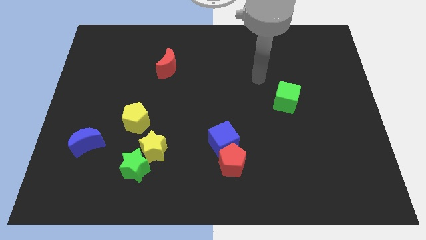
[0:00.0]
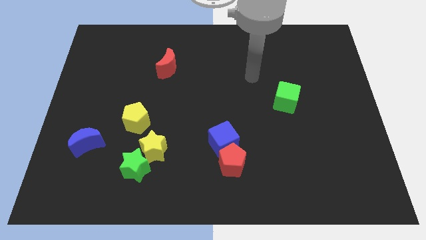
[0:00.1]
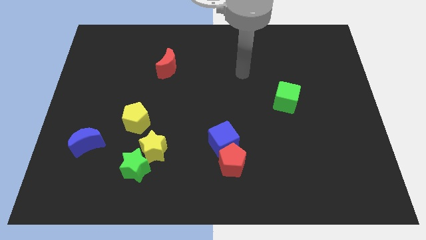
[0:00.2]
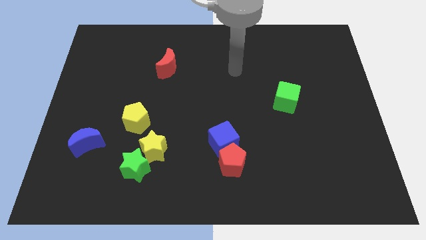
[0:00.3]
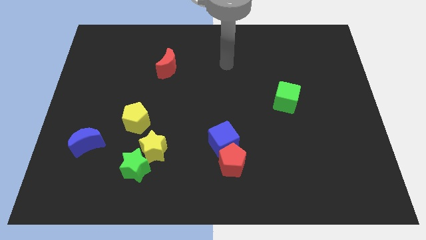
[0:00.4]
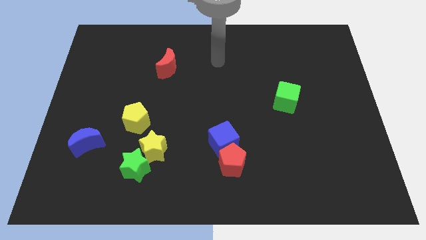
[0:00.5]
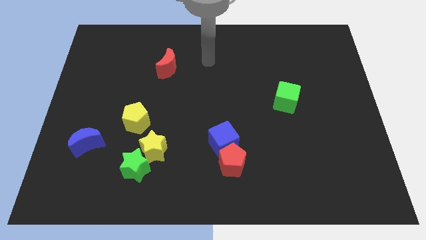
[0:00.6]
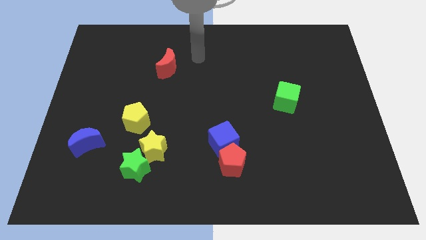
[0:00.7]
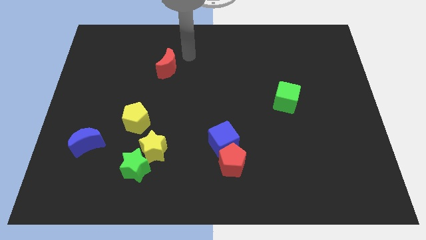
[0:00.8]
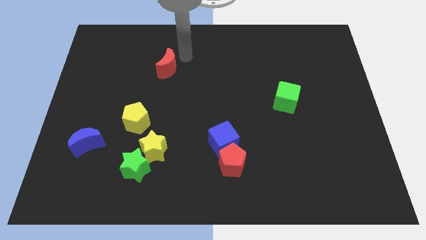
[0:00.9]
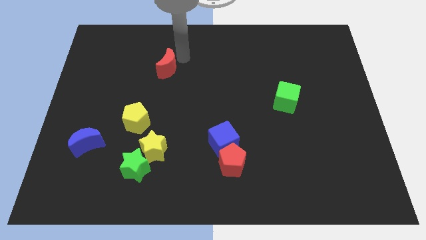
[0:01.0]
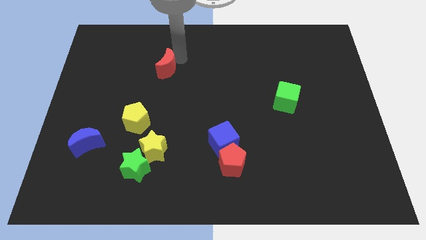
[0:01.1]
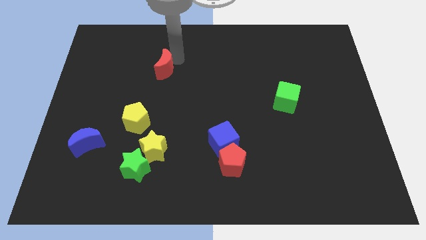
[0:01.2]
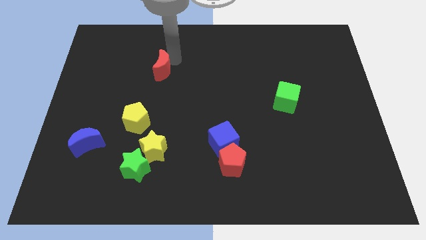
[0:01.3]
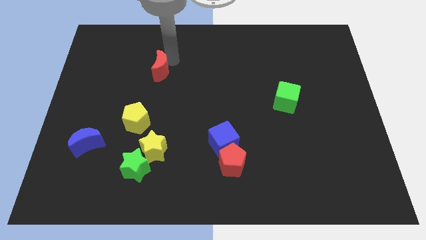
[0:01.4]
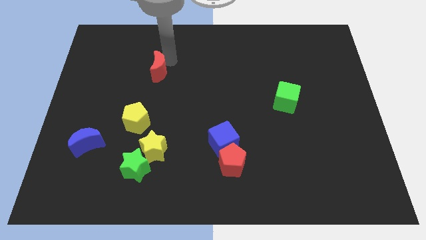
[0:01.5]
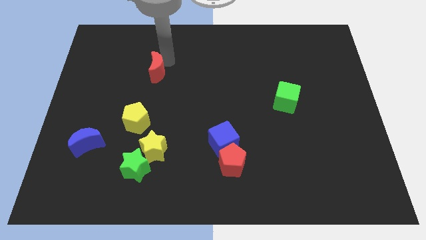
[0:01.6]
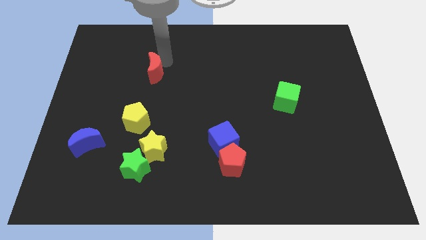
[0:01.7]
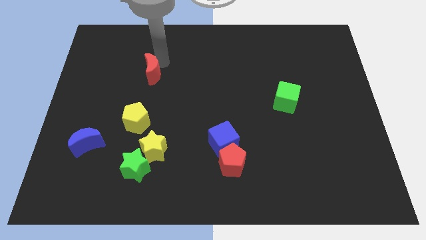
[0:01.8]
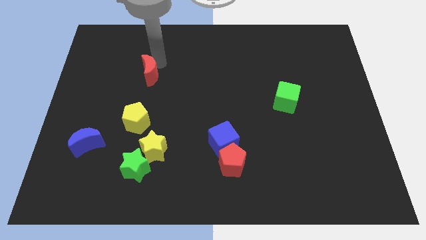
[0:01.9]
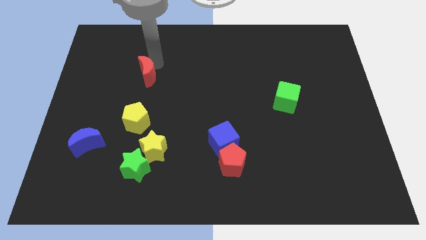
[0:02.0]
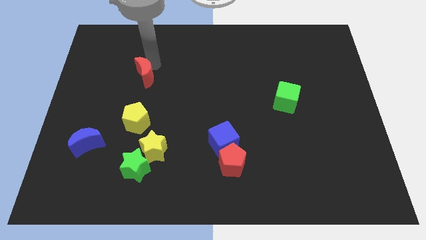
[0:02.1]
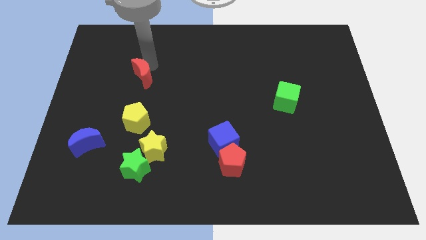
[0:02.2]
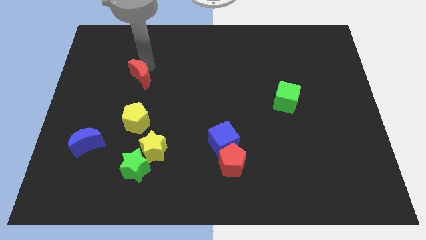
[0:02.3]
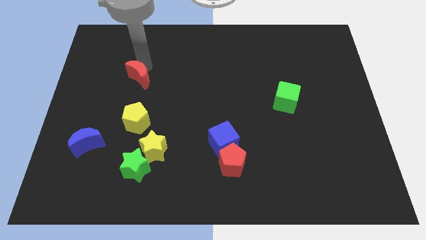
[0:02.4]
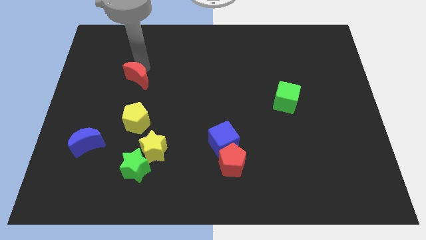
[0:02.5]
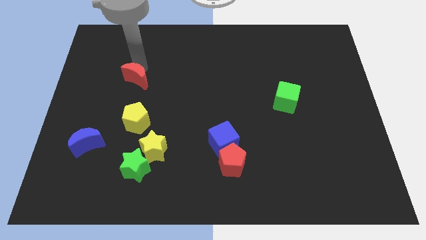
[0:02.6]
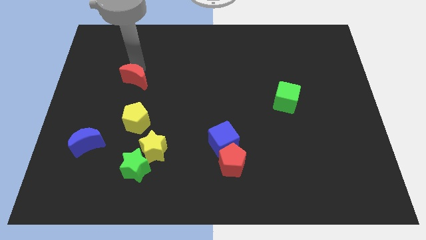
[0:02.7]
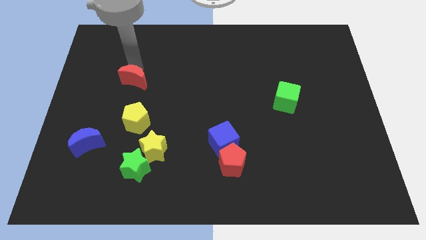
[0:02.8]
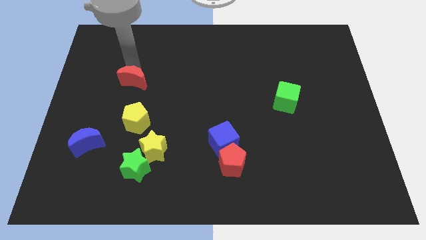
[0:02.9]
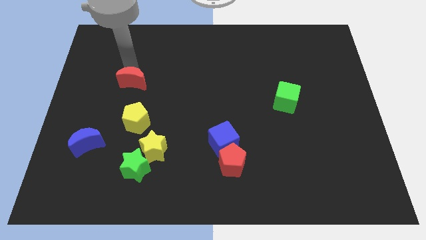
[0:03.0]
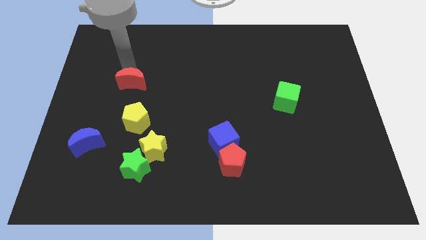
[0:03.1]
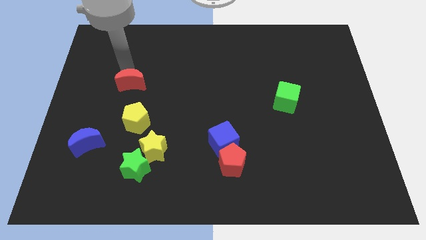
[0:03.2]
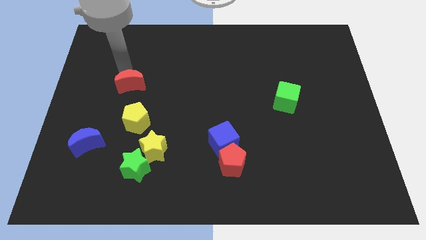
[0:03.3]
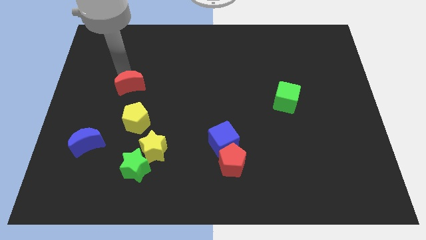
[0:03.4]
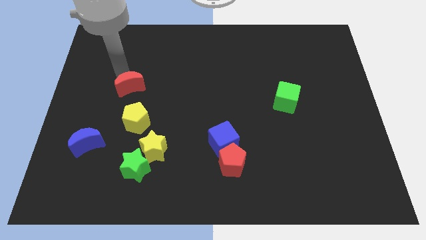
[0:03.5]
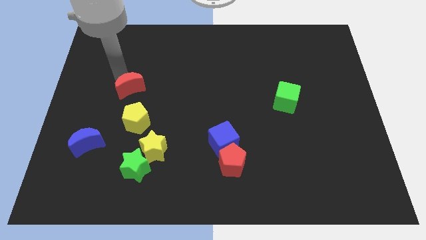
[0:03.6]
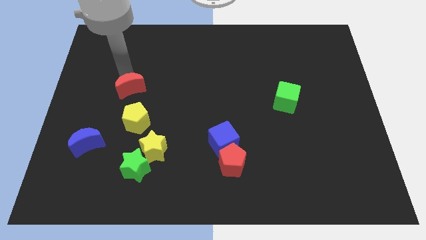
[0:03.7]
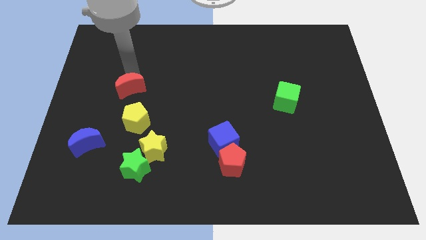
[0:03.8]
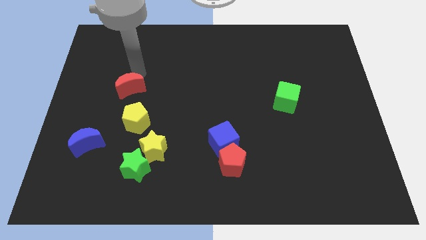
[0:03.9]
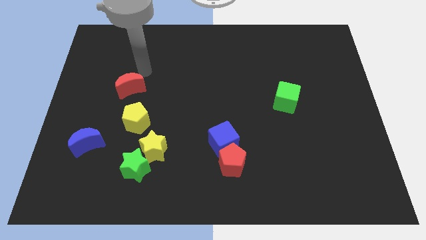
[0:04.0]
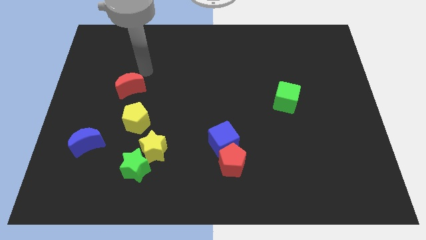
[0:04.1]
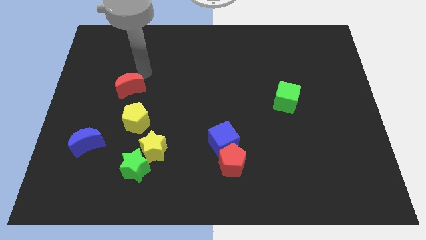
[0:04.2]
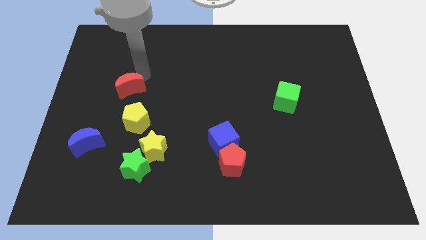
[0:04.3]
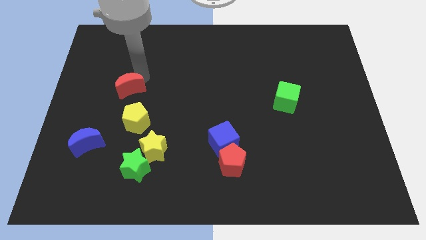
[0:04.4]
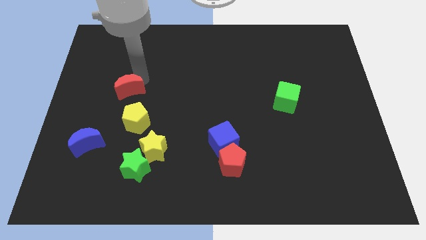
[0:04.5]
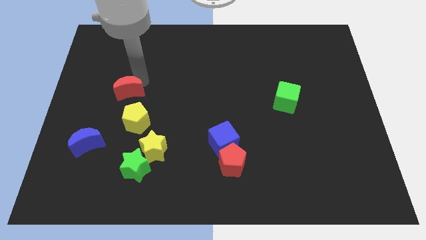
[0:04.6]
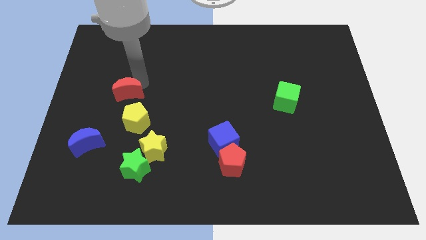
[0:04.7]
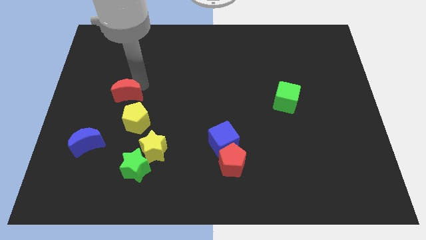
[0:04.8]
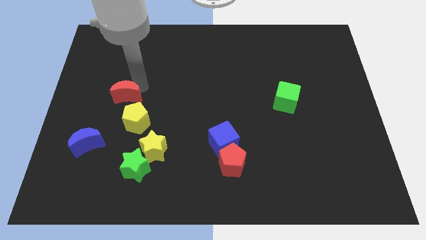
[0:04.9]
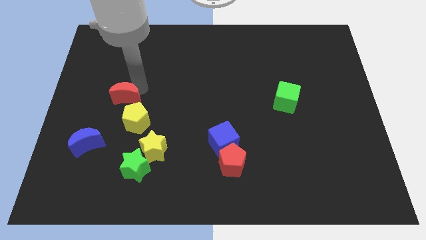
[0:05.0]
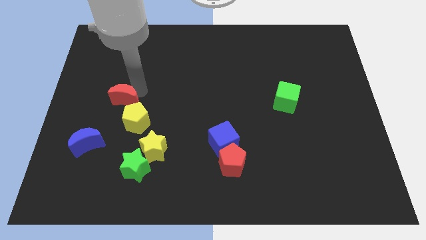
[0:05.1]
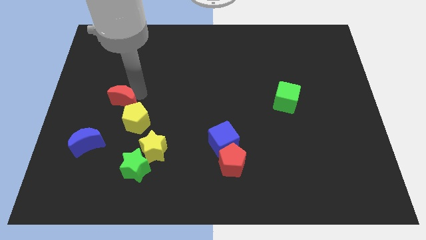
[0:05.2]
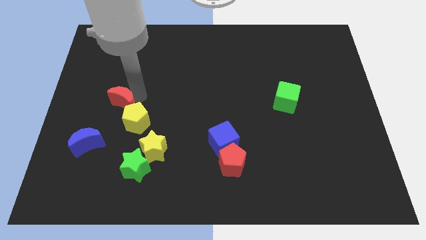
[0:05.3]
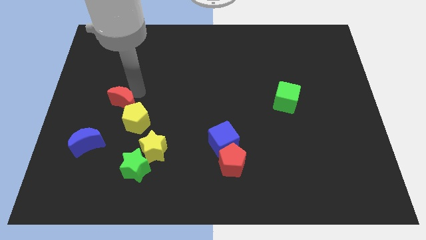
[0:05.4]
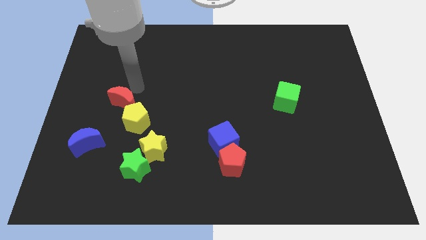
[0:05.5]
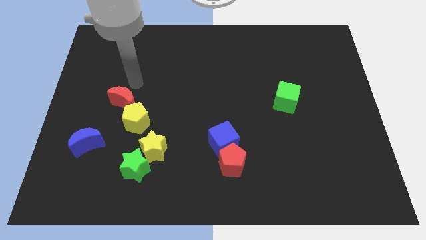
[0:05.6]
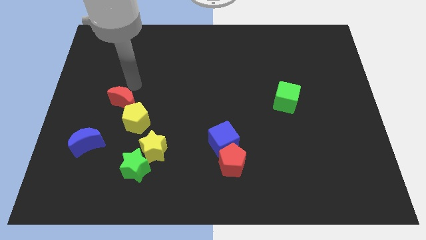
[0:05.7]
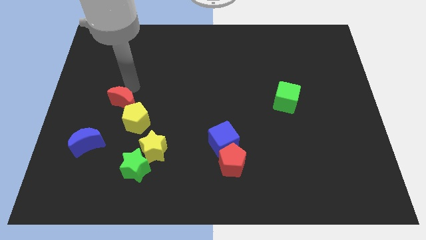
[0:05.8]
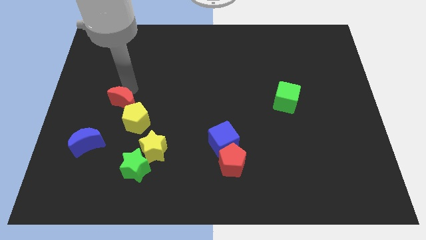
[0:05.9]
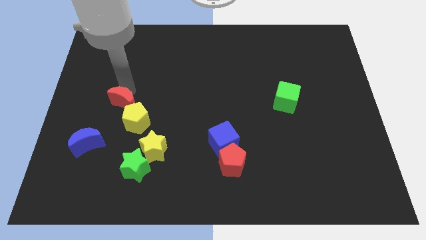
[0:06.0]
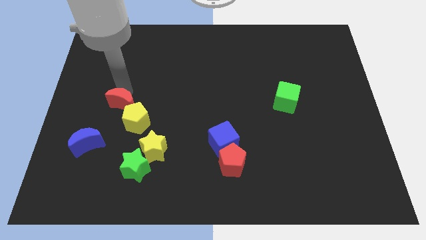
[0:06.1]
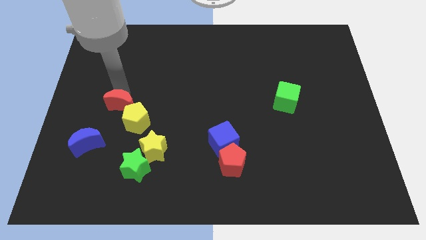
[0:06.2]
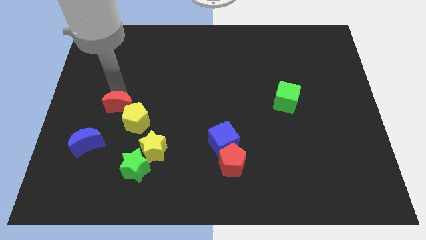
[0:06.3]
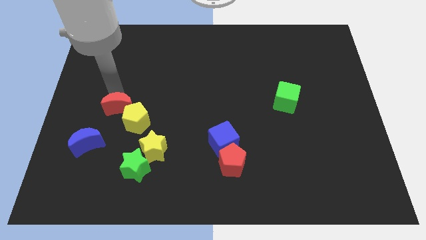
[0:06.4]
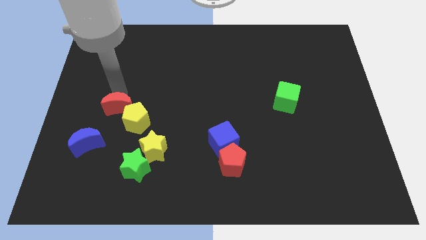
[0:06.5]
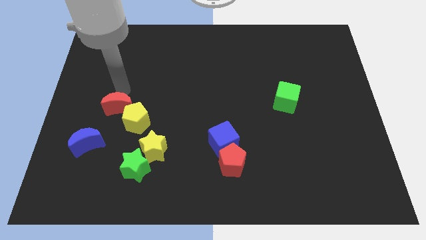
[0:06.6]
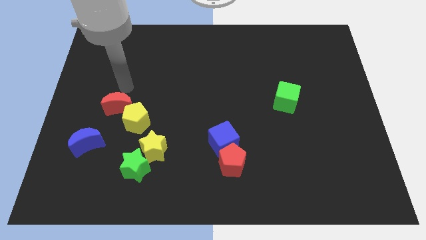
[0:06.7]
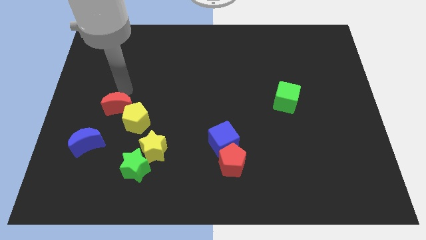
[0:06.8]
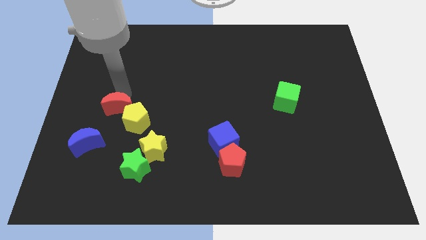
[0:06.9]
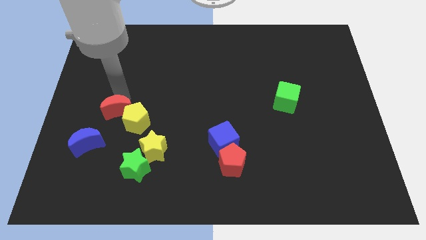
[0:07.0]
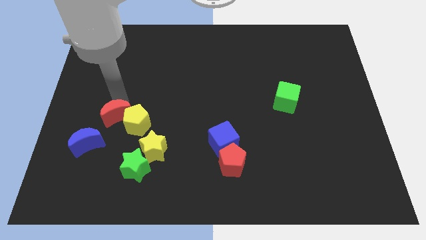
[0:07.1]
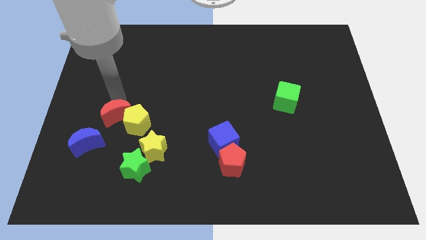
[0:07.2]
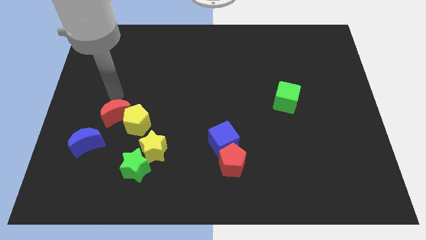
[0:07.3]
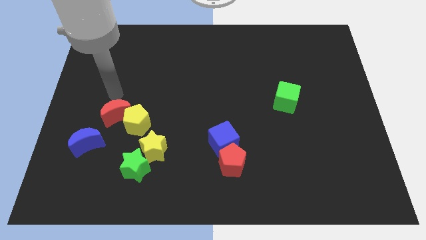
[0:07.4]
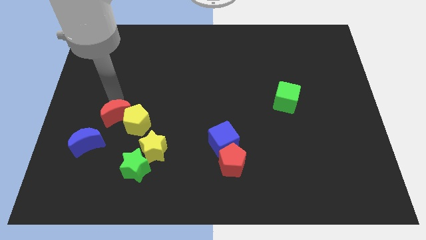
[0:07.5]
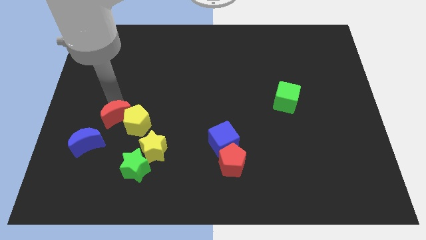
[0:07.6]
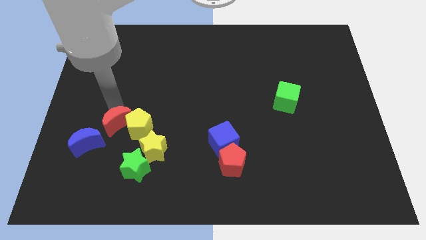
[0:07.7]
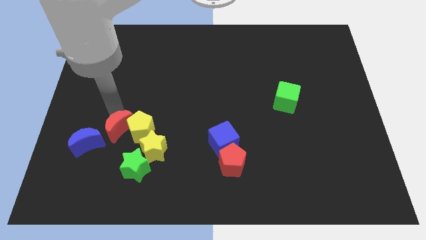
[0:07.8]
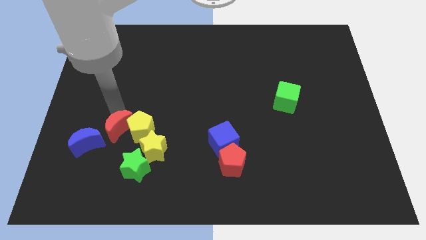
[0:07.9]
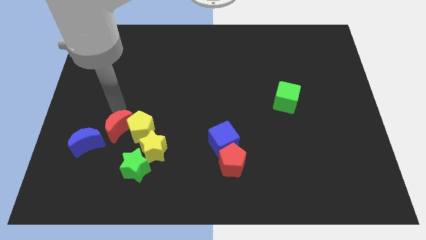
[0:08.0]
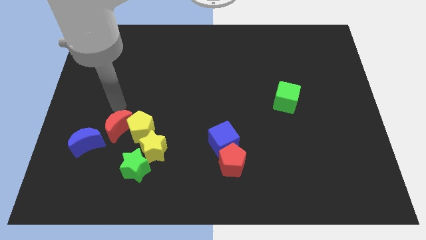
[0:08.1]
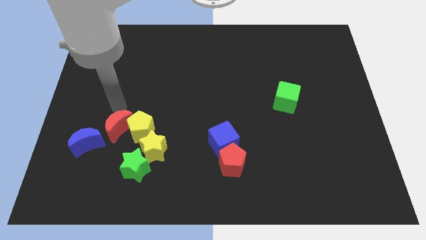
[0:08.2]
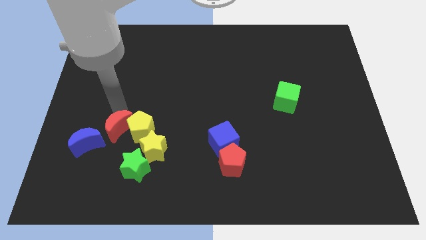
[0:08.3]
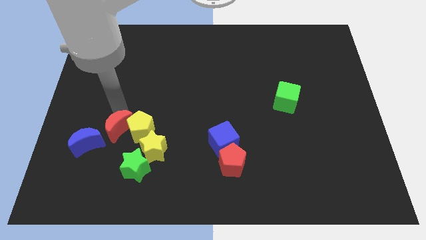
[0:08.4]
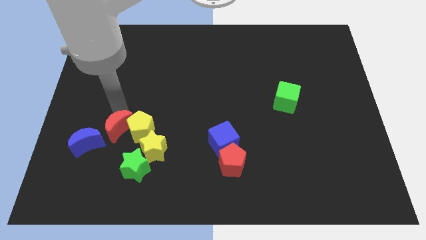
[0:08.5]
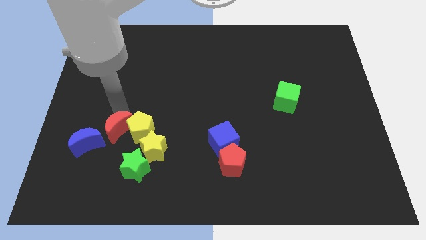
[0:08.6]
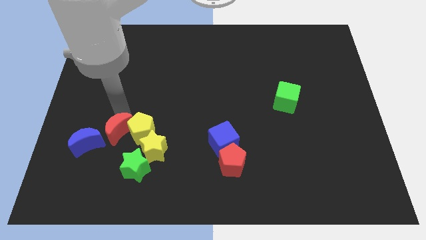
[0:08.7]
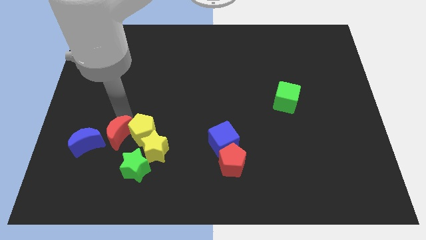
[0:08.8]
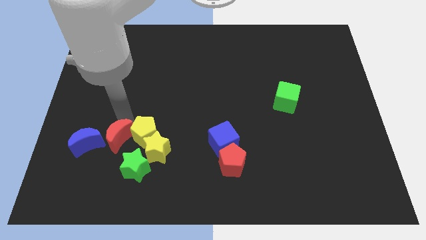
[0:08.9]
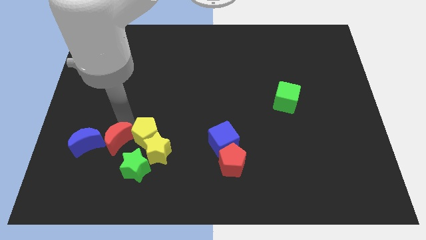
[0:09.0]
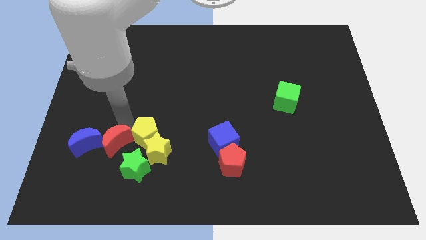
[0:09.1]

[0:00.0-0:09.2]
put the red moon diagonally down and to the right of the blue moon
